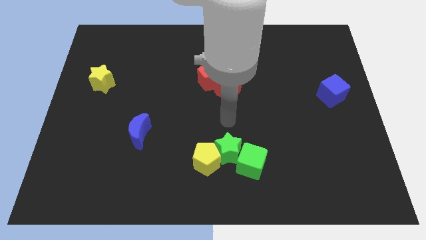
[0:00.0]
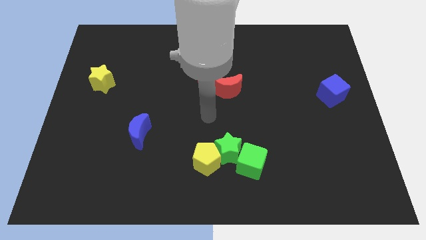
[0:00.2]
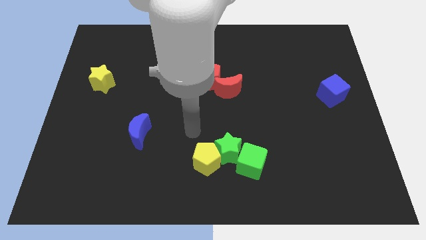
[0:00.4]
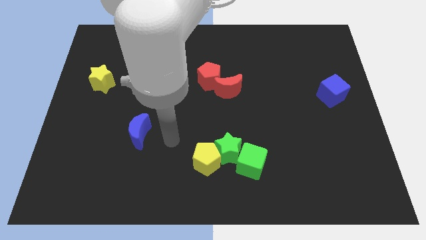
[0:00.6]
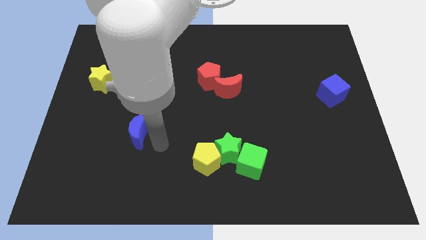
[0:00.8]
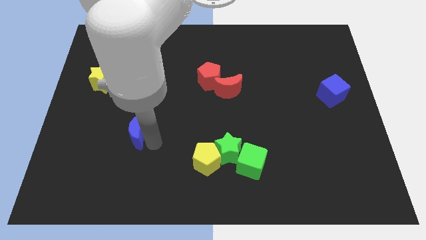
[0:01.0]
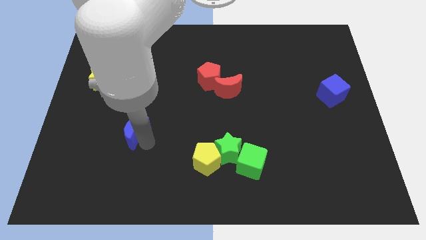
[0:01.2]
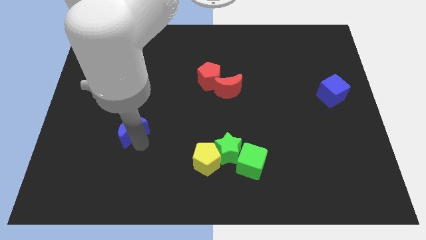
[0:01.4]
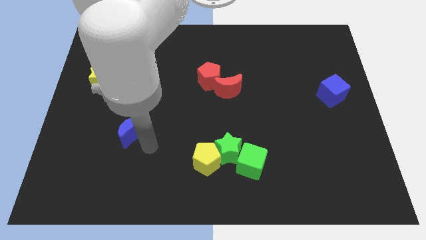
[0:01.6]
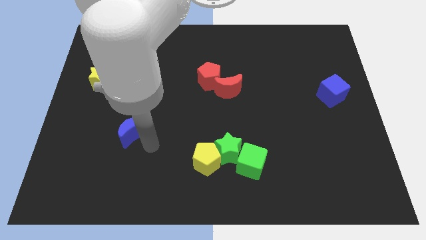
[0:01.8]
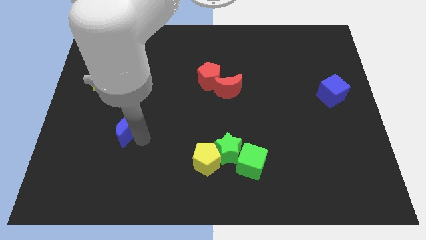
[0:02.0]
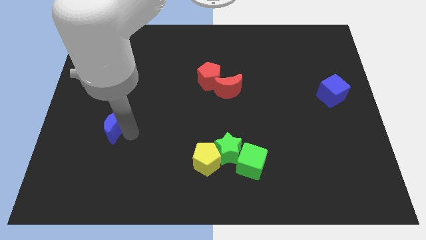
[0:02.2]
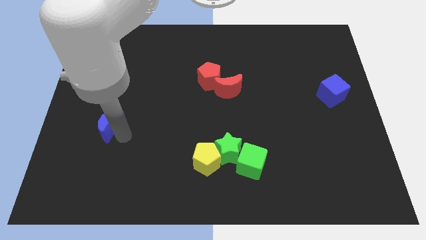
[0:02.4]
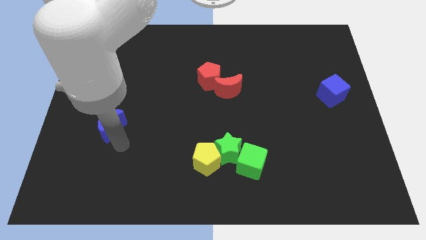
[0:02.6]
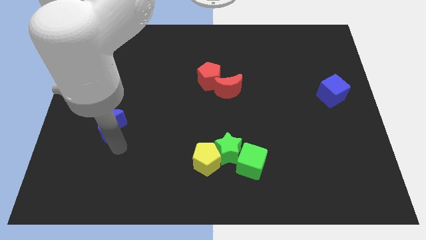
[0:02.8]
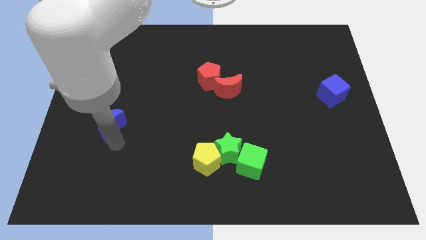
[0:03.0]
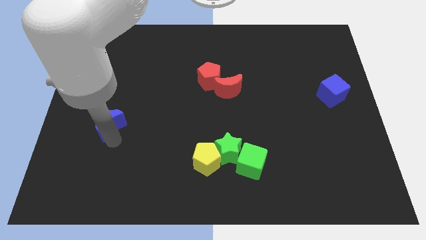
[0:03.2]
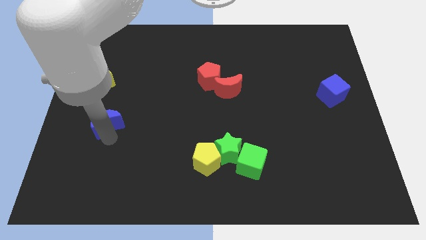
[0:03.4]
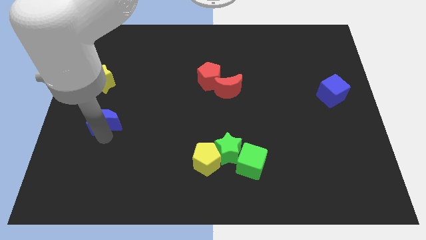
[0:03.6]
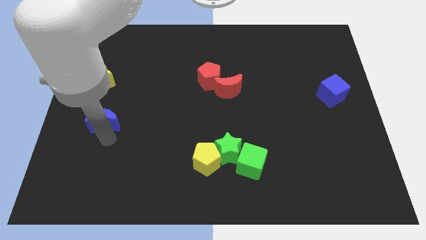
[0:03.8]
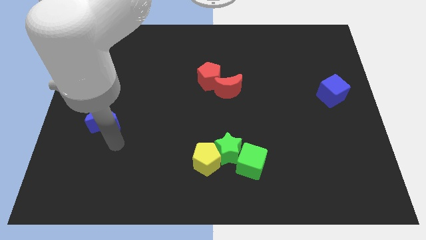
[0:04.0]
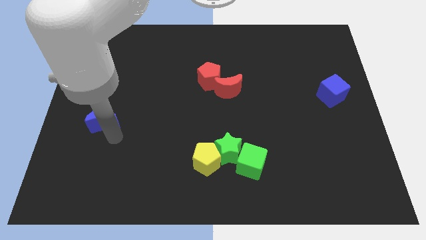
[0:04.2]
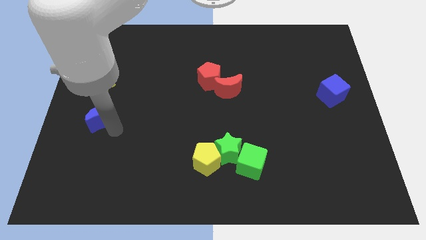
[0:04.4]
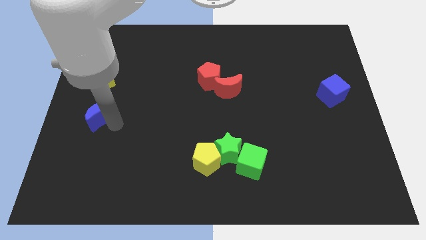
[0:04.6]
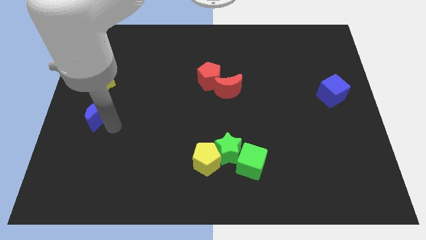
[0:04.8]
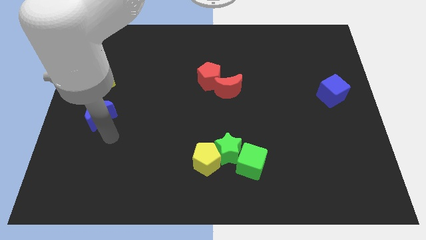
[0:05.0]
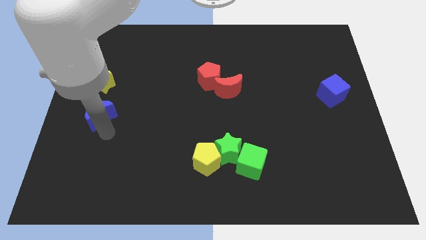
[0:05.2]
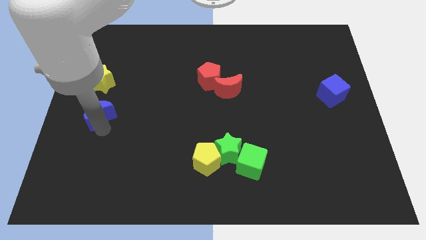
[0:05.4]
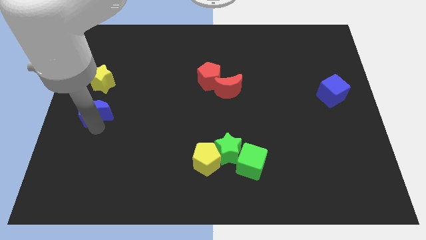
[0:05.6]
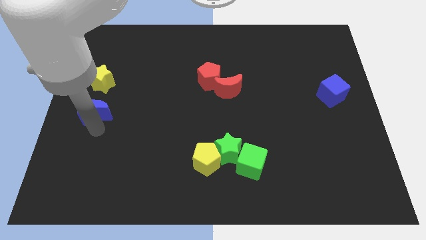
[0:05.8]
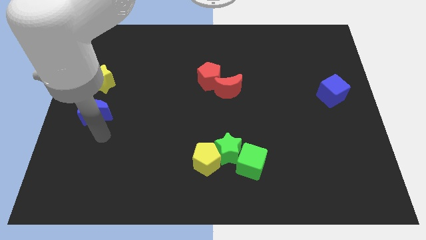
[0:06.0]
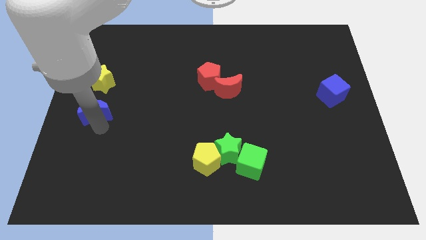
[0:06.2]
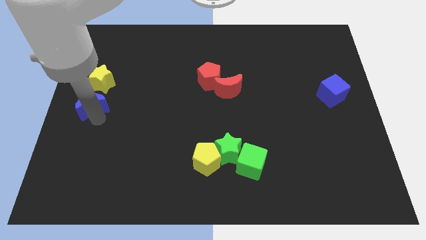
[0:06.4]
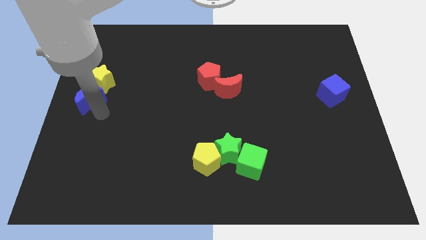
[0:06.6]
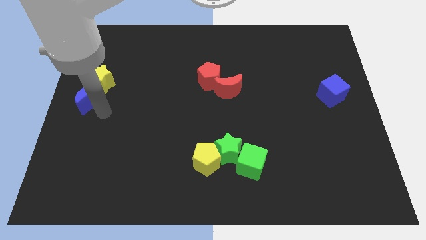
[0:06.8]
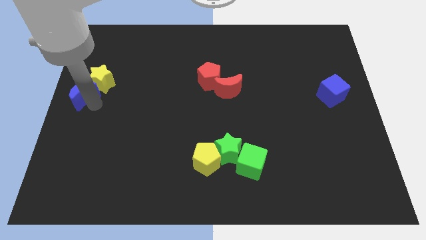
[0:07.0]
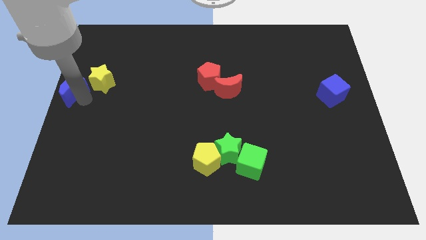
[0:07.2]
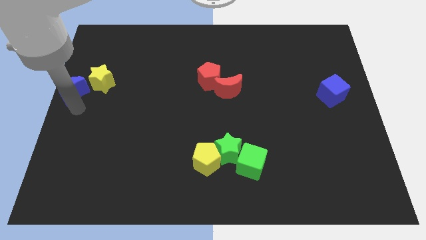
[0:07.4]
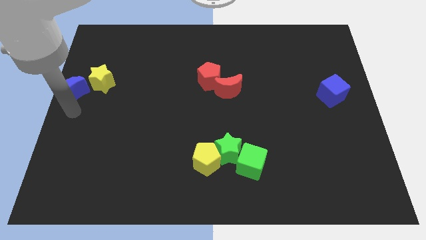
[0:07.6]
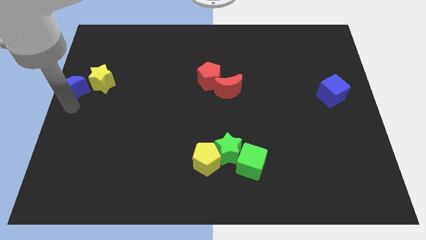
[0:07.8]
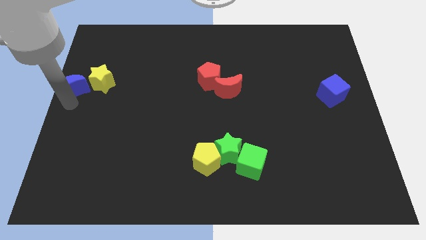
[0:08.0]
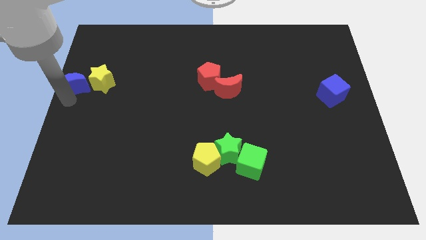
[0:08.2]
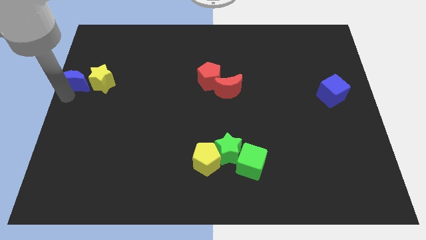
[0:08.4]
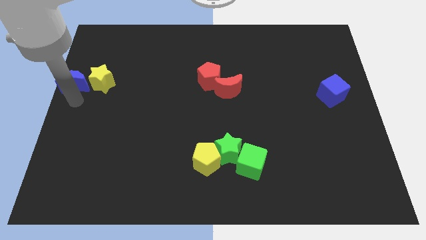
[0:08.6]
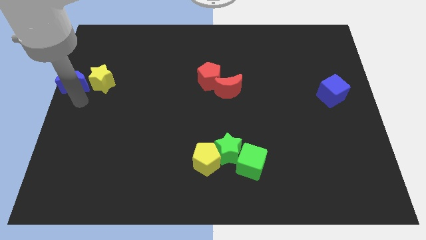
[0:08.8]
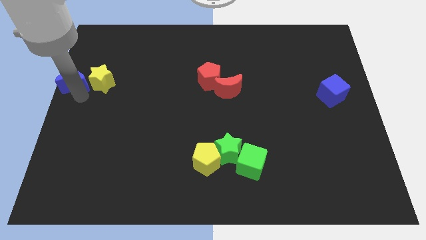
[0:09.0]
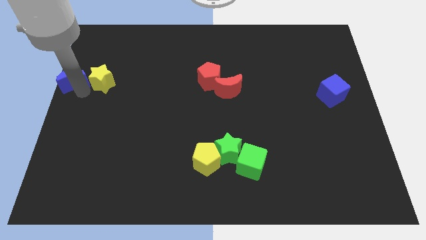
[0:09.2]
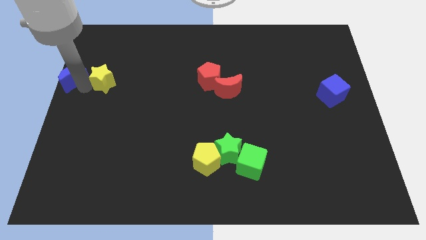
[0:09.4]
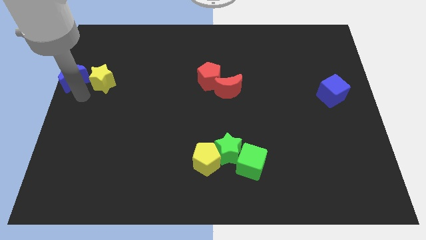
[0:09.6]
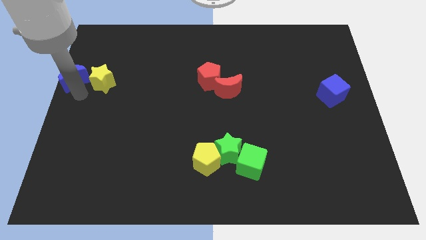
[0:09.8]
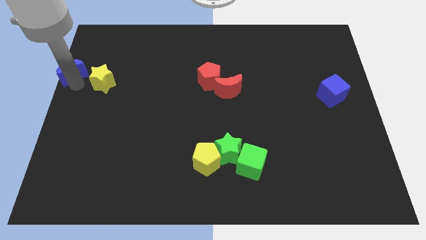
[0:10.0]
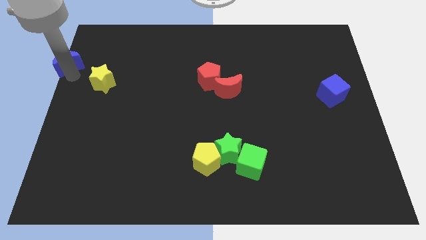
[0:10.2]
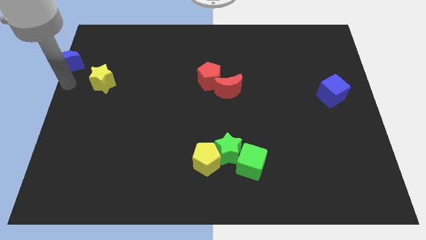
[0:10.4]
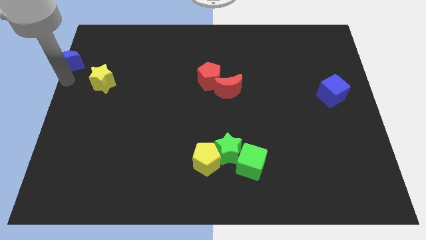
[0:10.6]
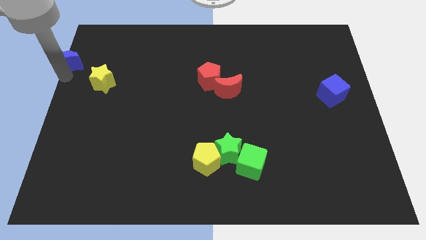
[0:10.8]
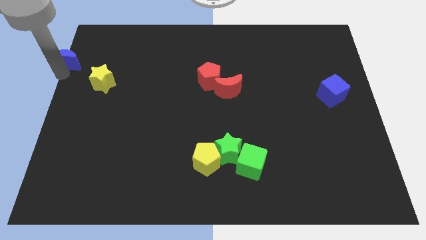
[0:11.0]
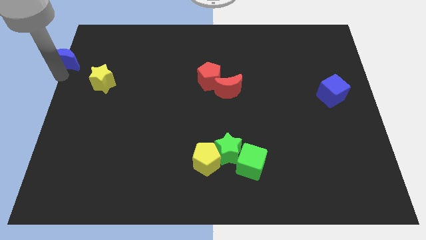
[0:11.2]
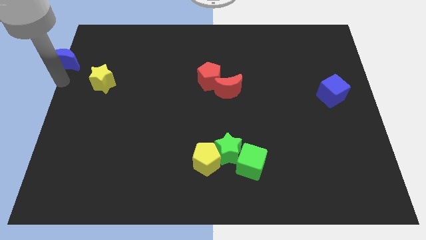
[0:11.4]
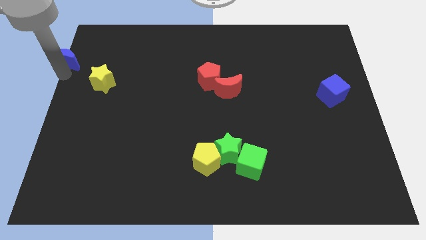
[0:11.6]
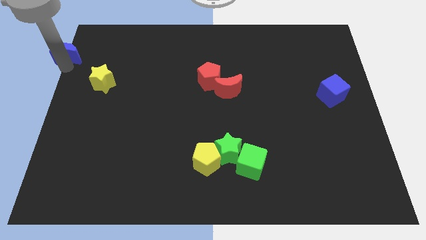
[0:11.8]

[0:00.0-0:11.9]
move the blue moon to the top left of the board
